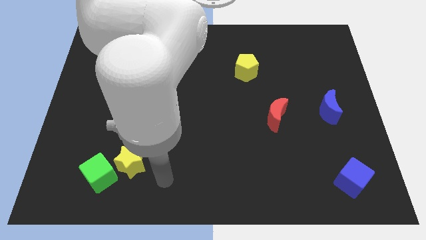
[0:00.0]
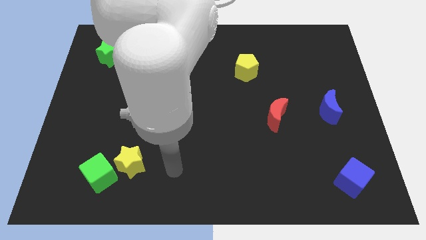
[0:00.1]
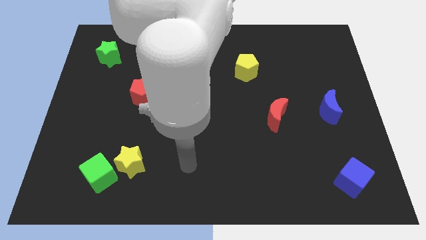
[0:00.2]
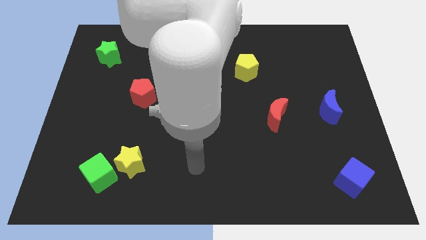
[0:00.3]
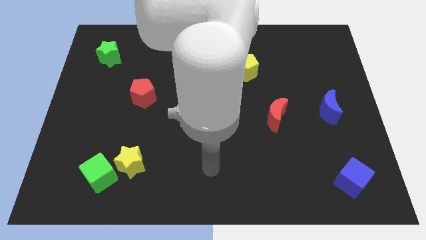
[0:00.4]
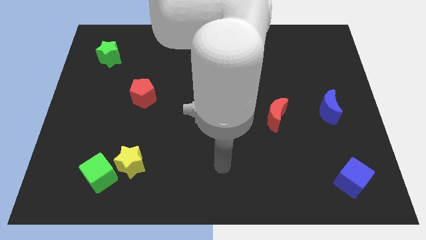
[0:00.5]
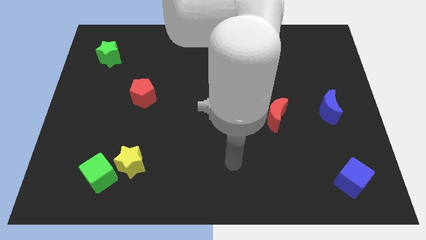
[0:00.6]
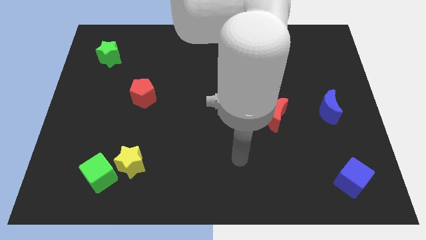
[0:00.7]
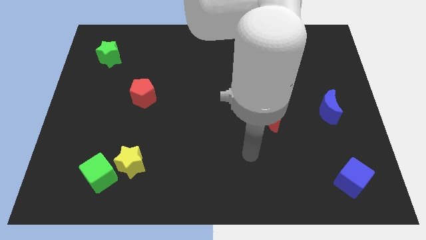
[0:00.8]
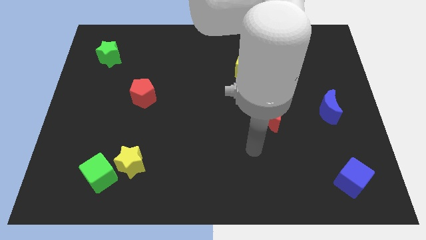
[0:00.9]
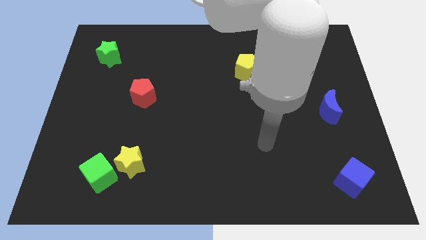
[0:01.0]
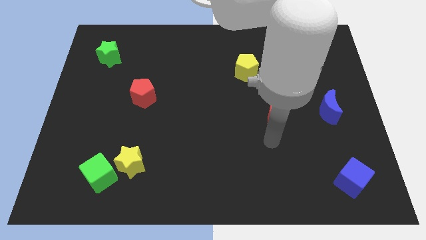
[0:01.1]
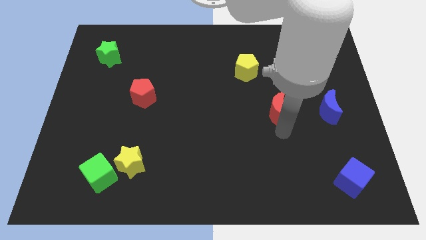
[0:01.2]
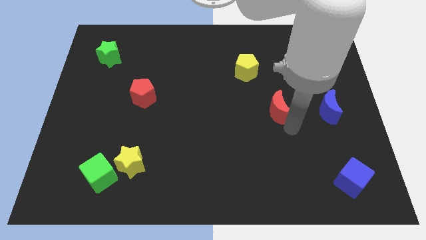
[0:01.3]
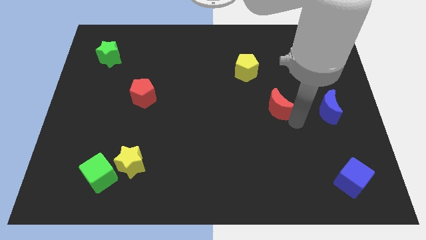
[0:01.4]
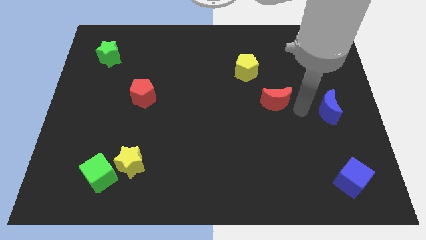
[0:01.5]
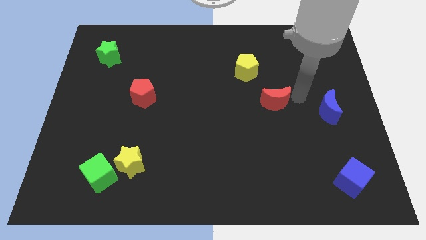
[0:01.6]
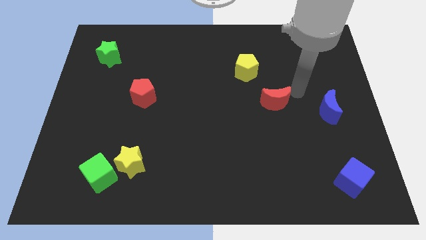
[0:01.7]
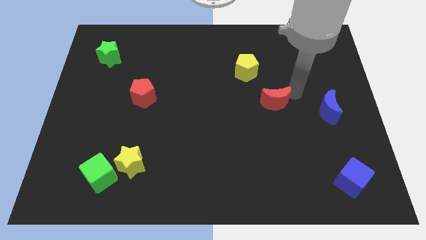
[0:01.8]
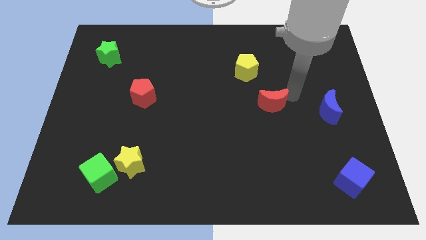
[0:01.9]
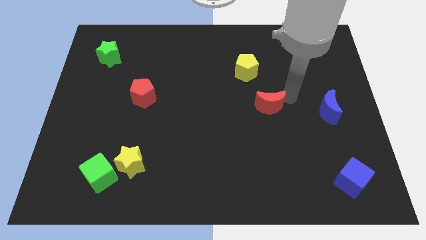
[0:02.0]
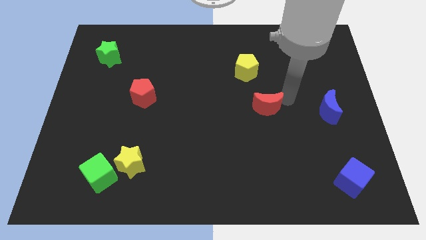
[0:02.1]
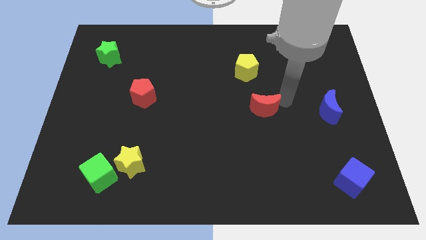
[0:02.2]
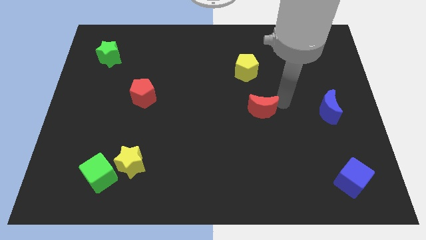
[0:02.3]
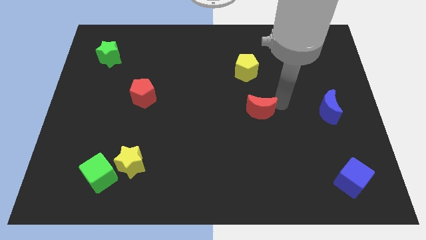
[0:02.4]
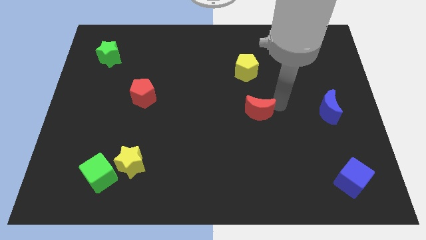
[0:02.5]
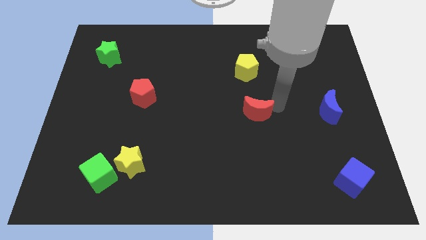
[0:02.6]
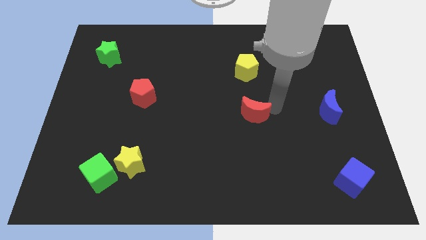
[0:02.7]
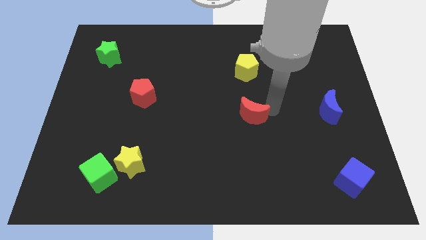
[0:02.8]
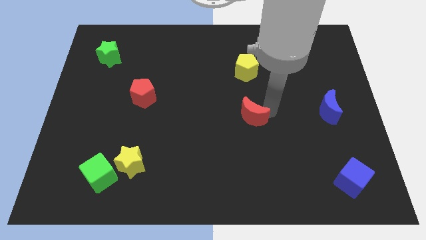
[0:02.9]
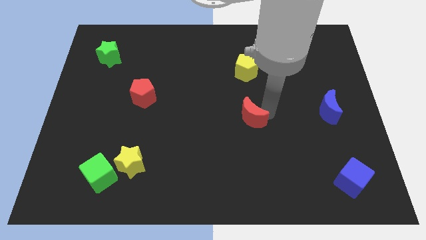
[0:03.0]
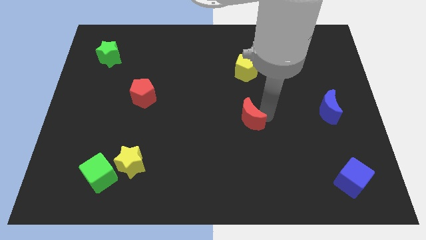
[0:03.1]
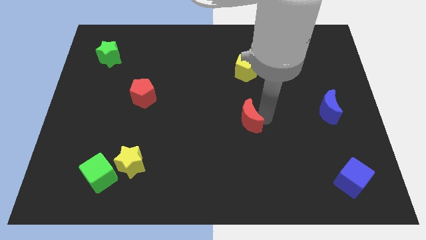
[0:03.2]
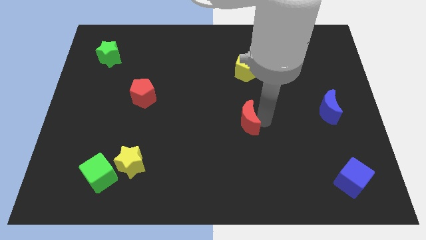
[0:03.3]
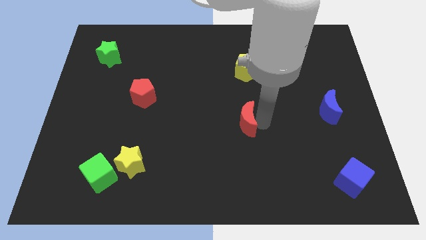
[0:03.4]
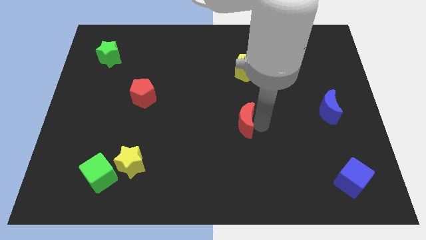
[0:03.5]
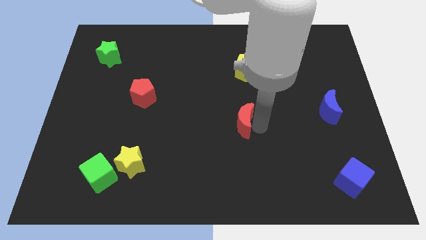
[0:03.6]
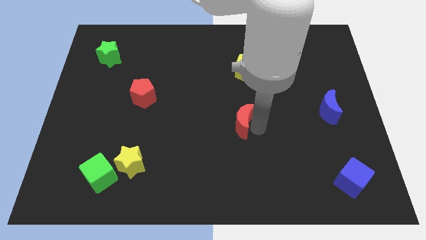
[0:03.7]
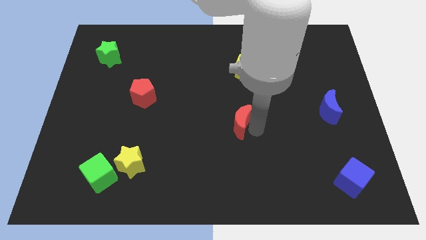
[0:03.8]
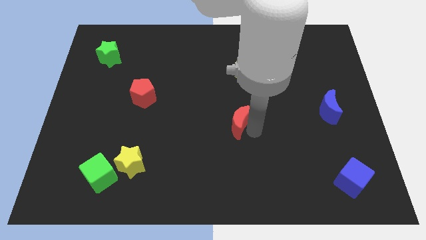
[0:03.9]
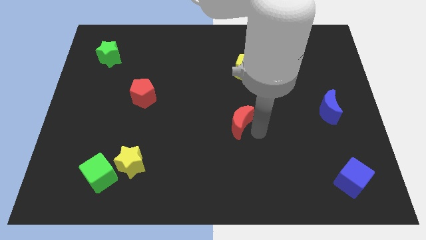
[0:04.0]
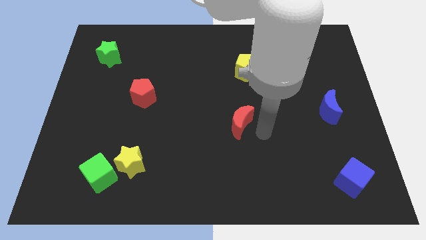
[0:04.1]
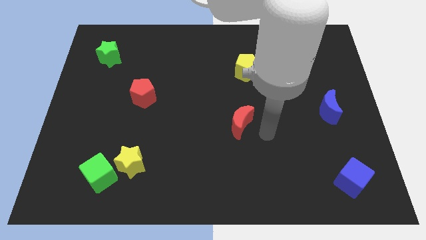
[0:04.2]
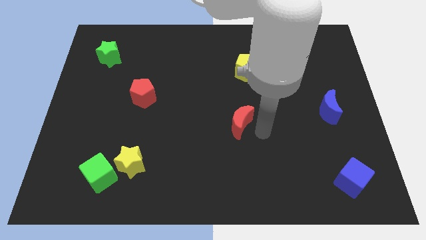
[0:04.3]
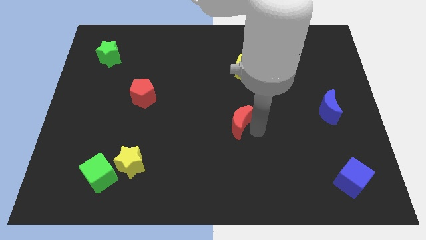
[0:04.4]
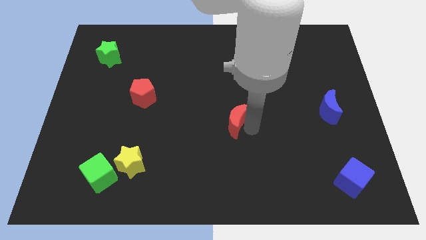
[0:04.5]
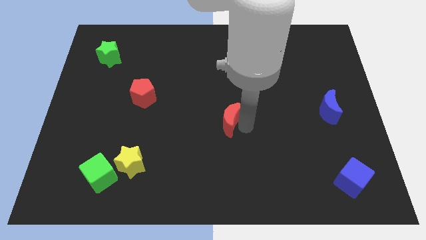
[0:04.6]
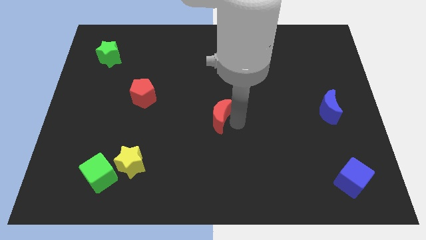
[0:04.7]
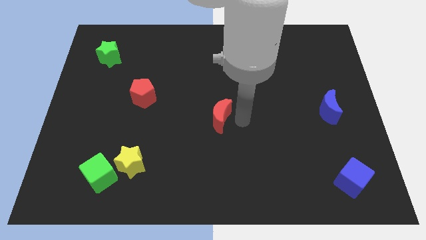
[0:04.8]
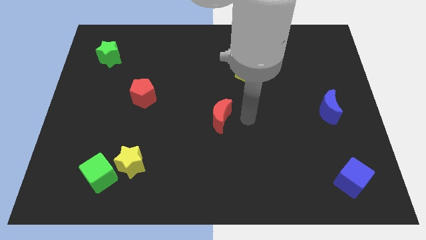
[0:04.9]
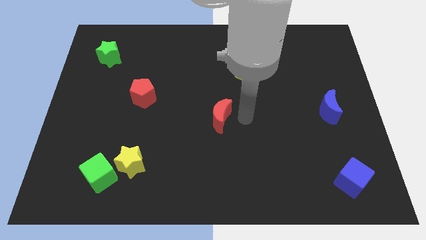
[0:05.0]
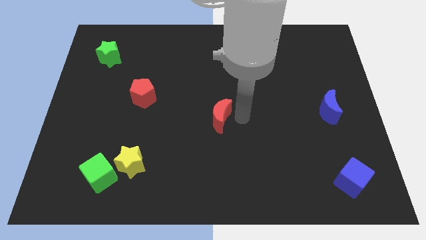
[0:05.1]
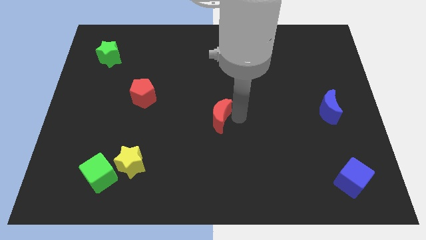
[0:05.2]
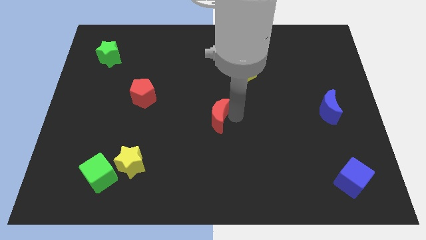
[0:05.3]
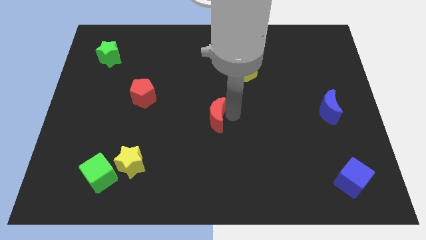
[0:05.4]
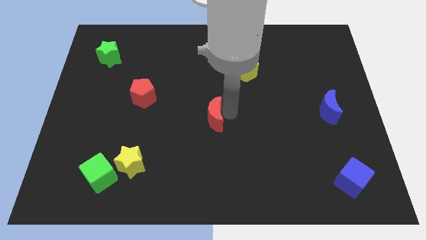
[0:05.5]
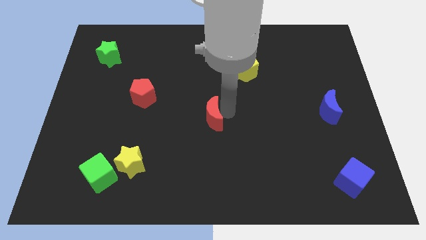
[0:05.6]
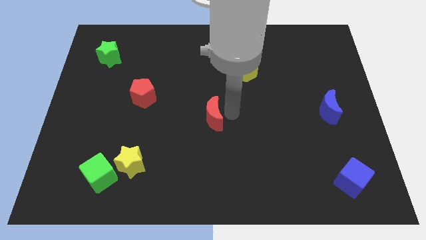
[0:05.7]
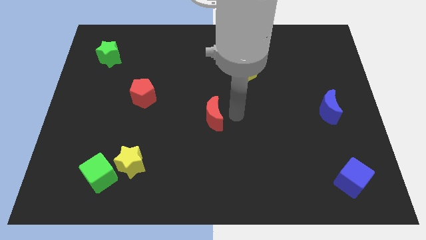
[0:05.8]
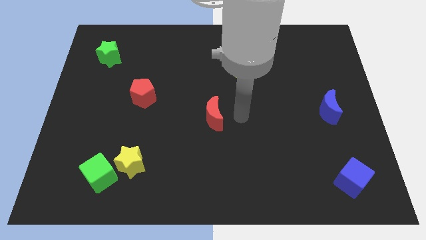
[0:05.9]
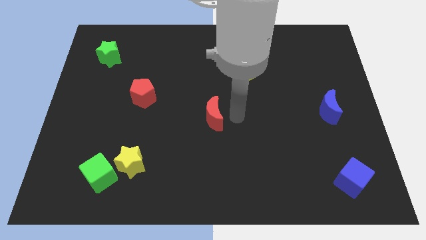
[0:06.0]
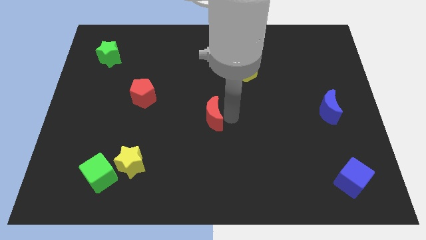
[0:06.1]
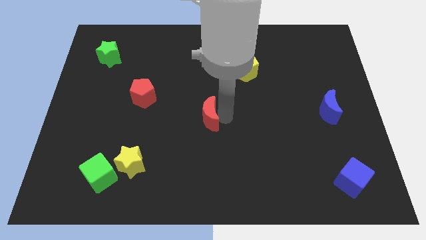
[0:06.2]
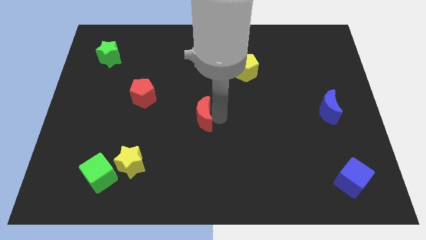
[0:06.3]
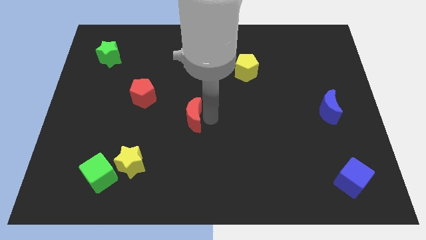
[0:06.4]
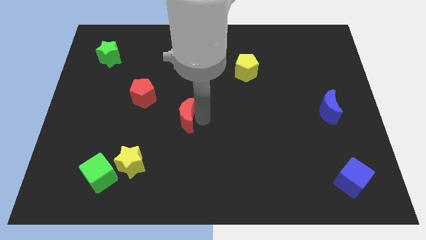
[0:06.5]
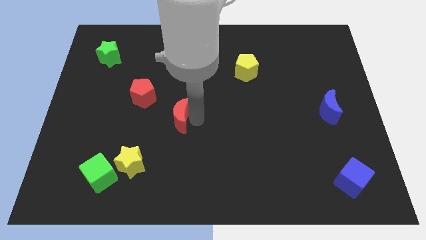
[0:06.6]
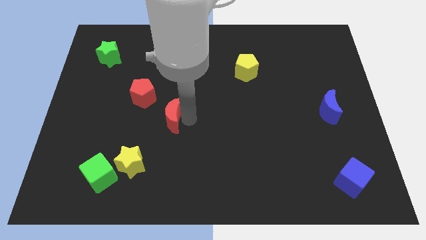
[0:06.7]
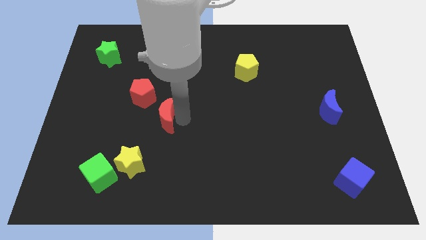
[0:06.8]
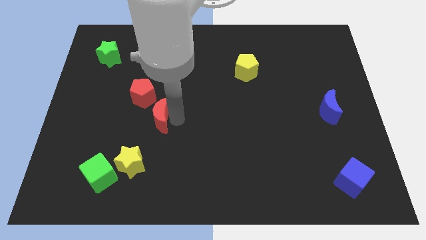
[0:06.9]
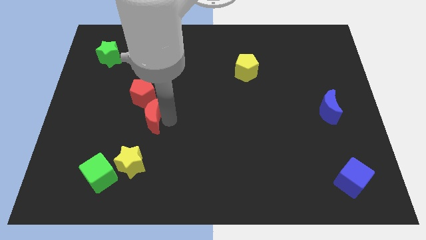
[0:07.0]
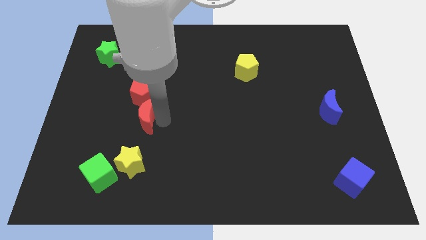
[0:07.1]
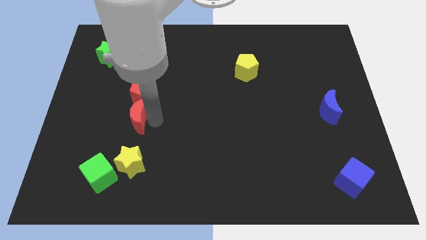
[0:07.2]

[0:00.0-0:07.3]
put the red moon to the bottom left of the red pentagon

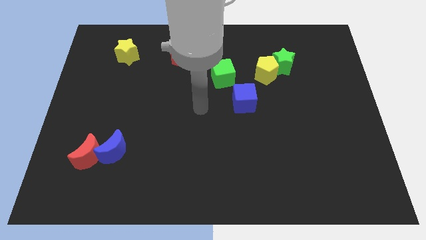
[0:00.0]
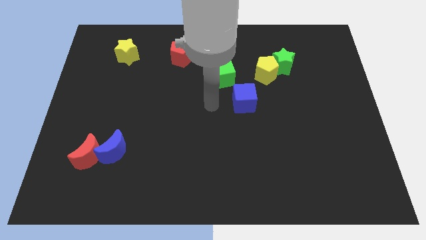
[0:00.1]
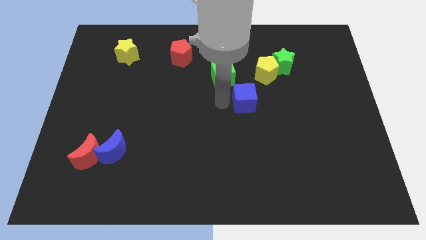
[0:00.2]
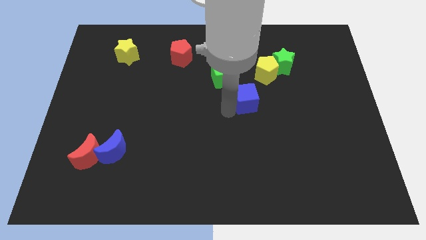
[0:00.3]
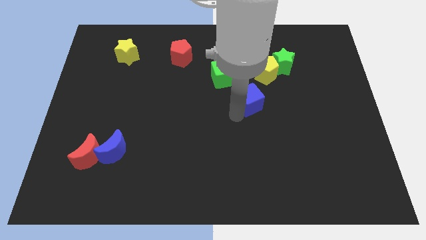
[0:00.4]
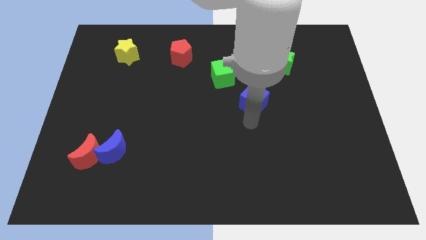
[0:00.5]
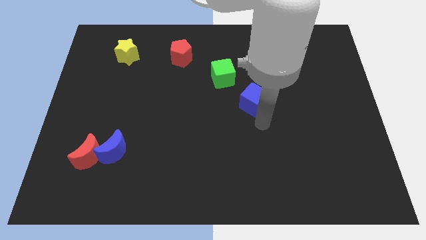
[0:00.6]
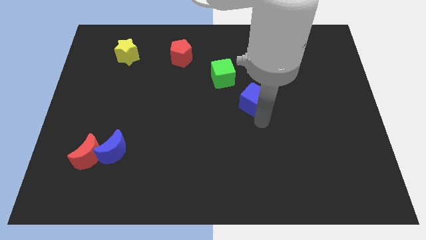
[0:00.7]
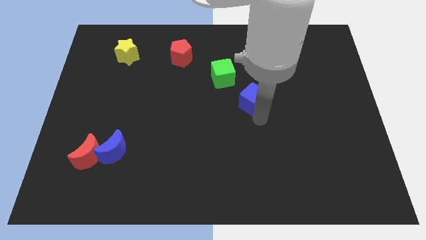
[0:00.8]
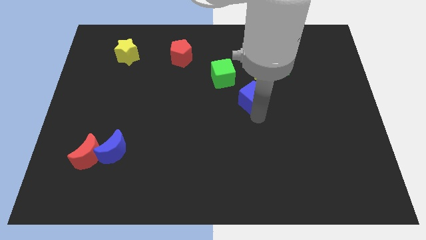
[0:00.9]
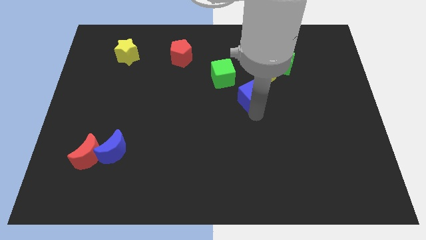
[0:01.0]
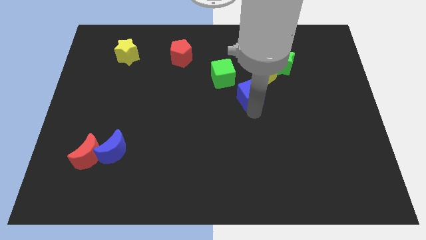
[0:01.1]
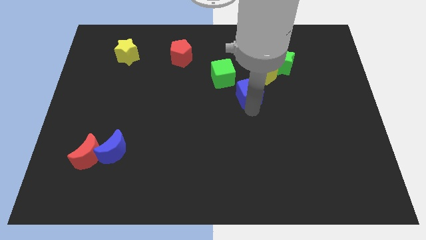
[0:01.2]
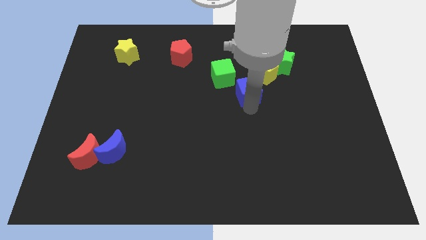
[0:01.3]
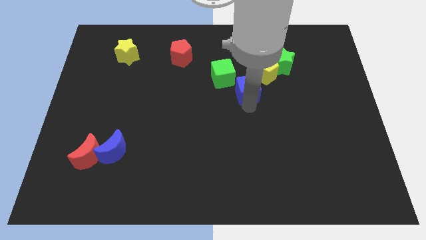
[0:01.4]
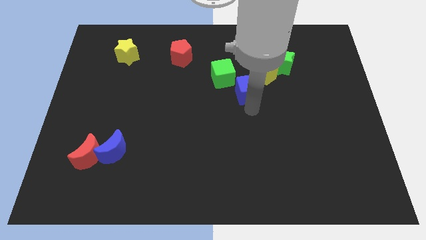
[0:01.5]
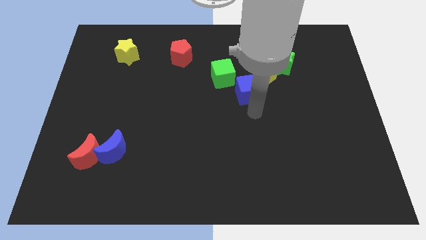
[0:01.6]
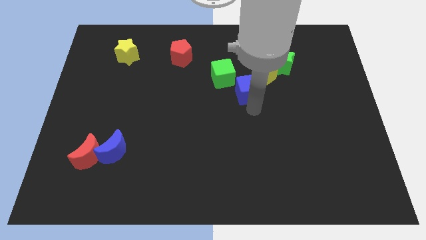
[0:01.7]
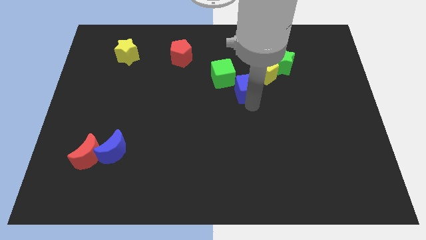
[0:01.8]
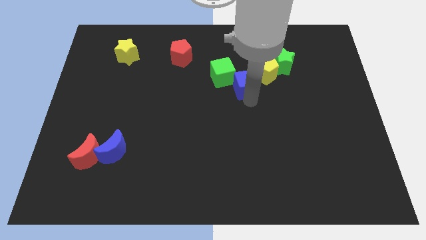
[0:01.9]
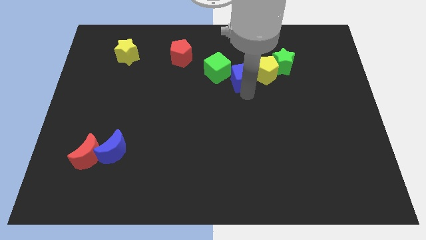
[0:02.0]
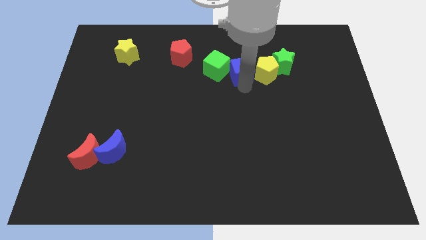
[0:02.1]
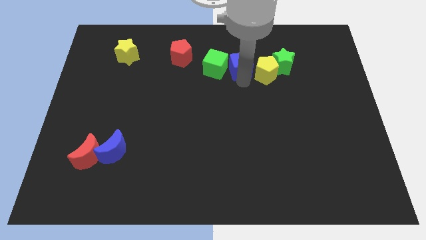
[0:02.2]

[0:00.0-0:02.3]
put the blue cube to the top right side of the green cube
